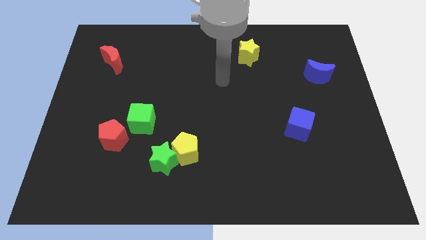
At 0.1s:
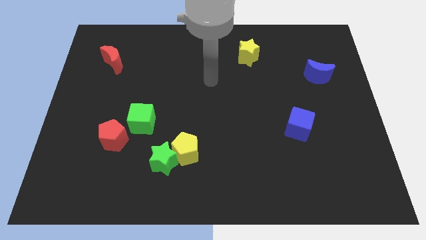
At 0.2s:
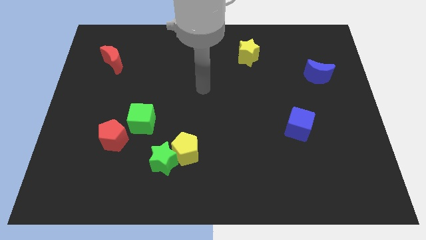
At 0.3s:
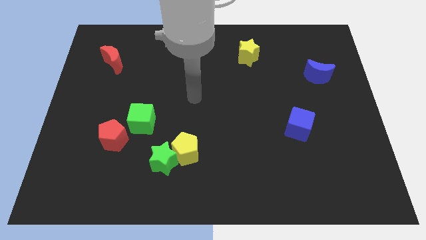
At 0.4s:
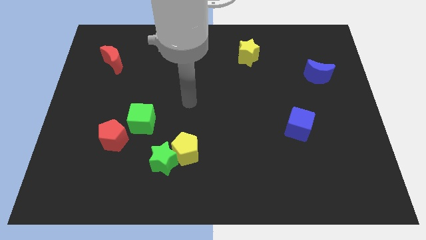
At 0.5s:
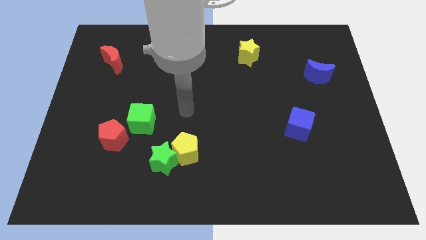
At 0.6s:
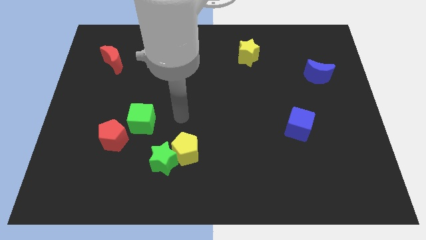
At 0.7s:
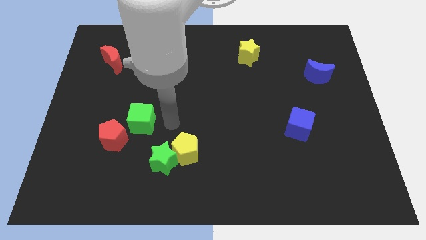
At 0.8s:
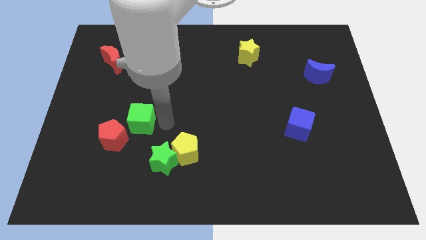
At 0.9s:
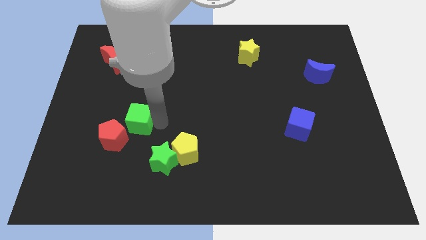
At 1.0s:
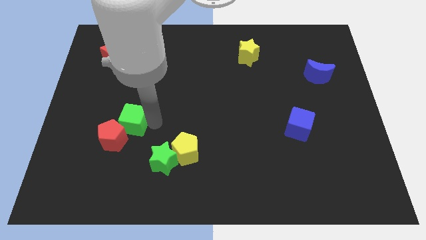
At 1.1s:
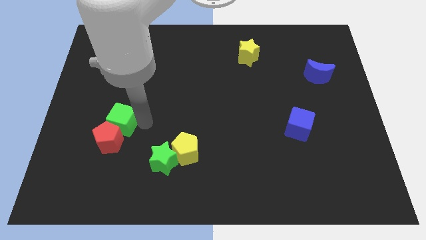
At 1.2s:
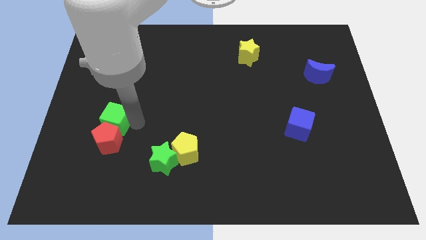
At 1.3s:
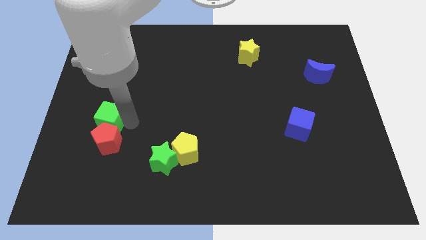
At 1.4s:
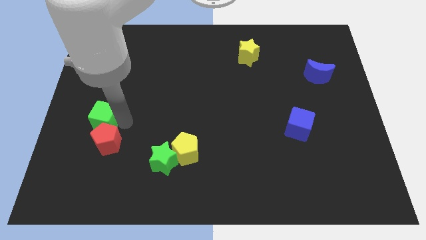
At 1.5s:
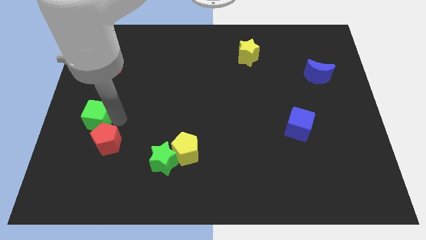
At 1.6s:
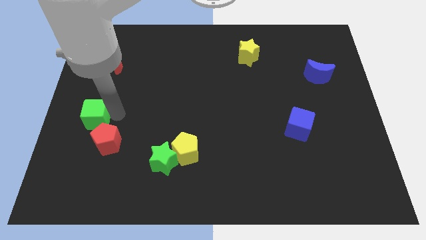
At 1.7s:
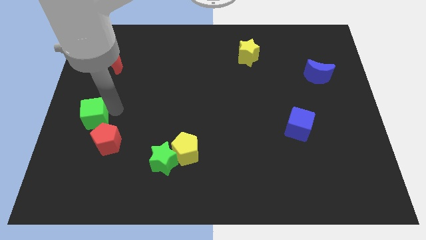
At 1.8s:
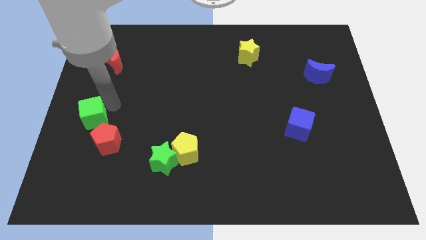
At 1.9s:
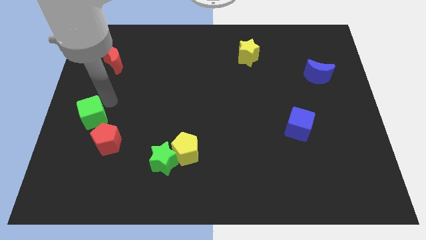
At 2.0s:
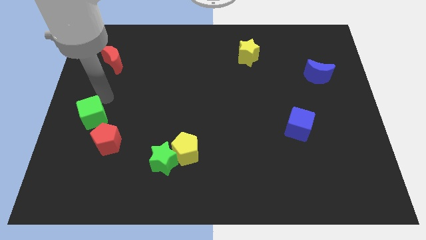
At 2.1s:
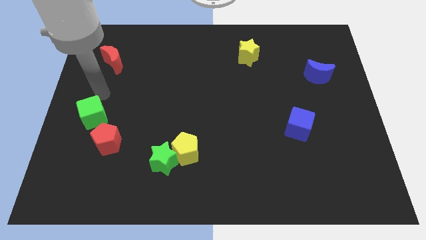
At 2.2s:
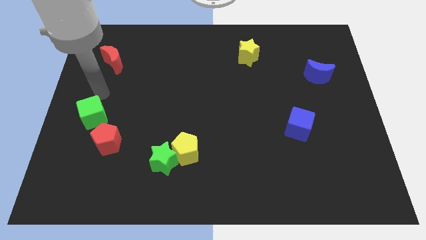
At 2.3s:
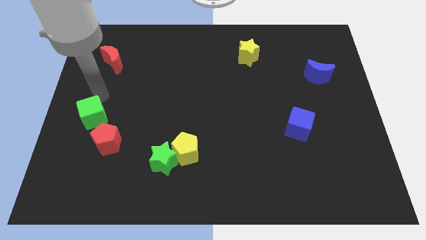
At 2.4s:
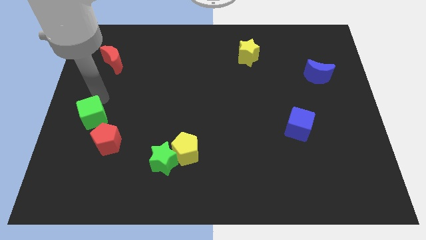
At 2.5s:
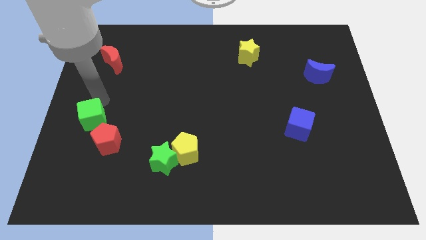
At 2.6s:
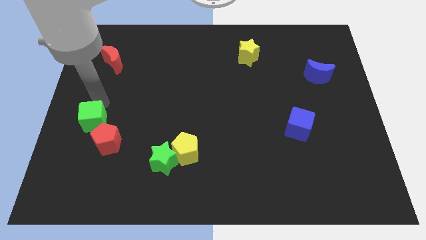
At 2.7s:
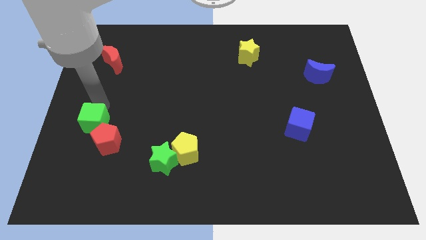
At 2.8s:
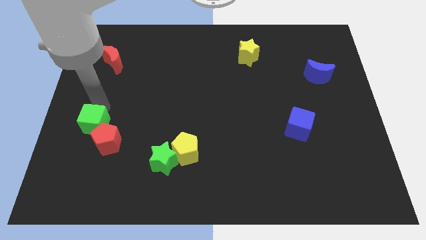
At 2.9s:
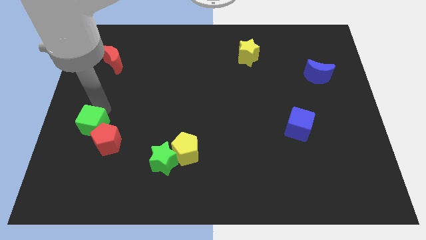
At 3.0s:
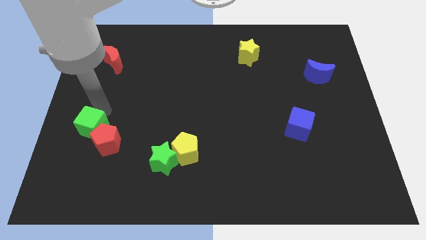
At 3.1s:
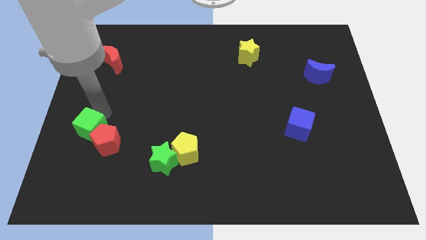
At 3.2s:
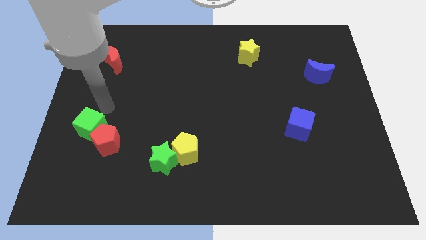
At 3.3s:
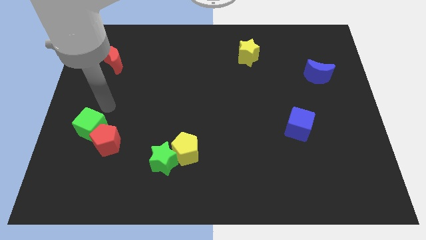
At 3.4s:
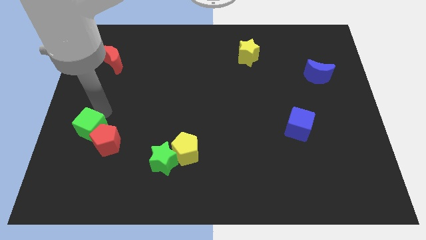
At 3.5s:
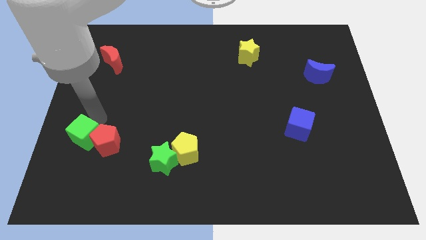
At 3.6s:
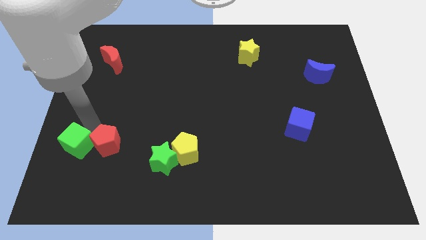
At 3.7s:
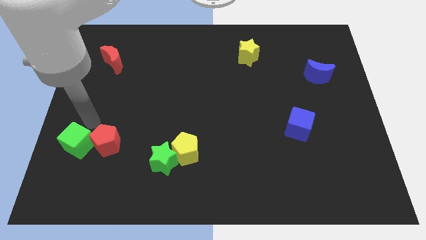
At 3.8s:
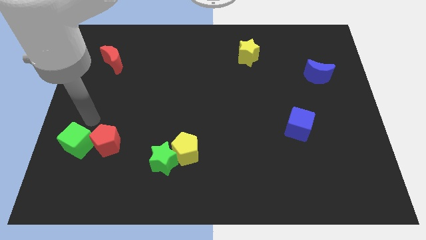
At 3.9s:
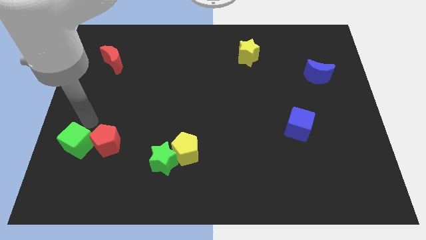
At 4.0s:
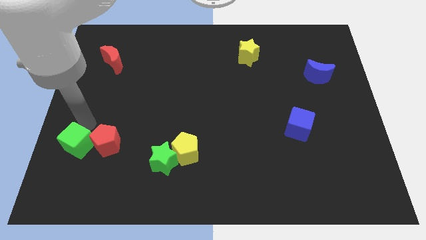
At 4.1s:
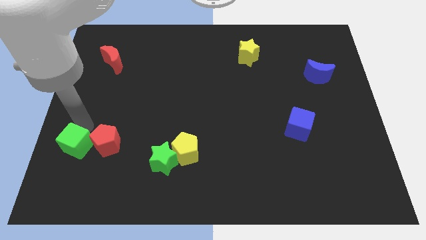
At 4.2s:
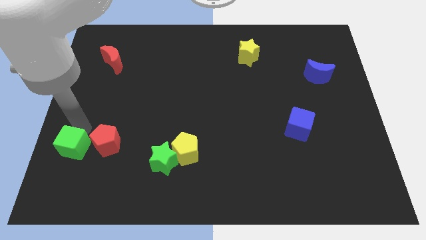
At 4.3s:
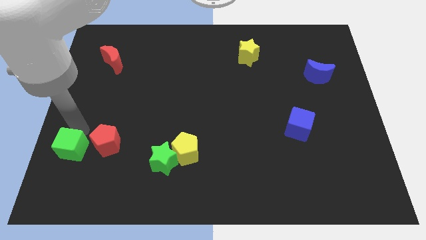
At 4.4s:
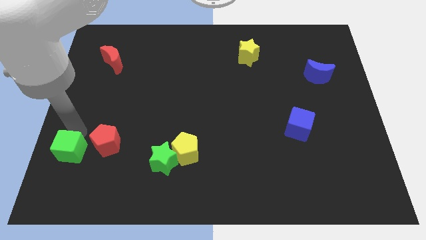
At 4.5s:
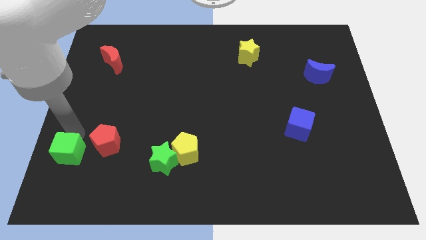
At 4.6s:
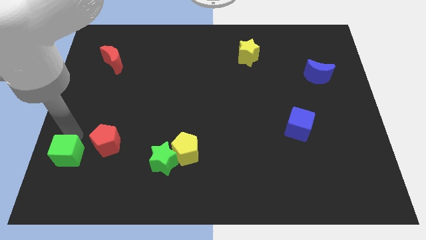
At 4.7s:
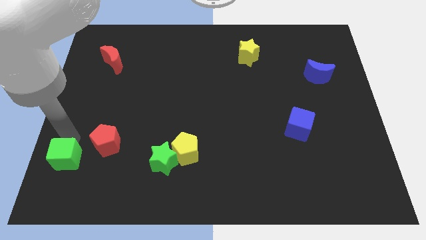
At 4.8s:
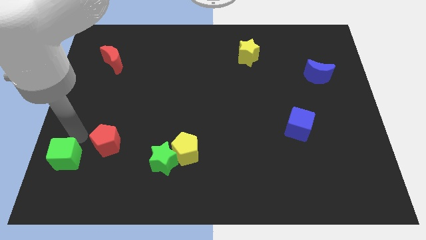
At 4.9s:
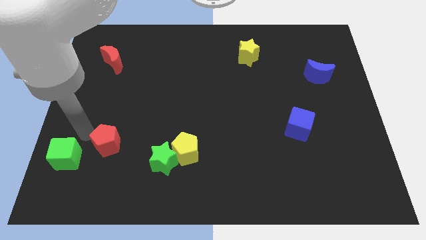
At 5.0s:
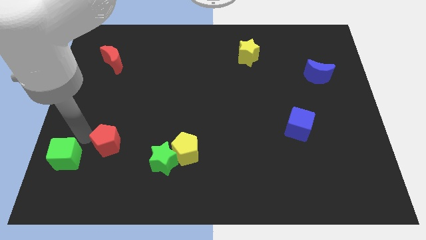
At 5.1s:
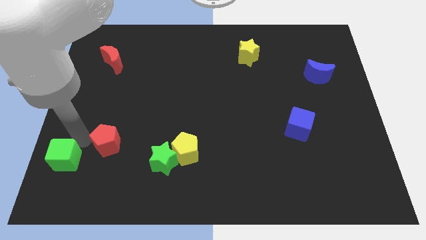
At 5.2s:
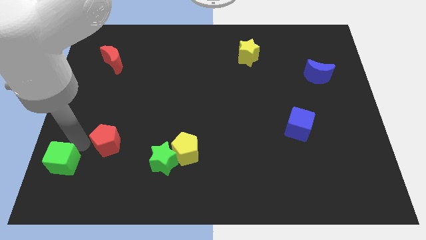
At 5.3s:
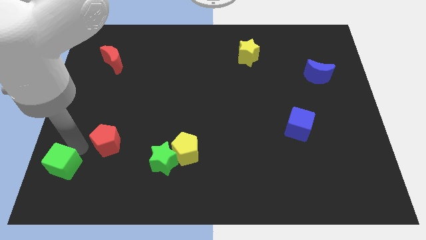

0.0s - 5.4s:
move the green cube to the lower left corner
